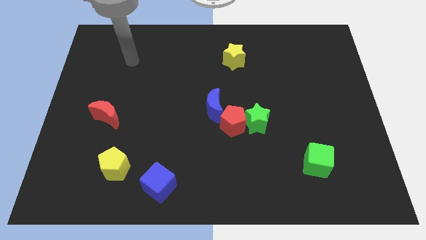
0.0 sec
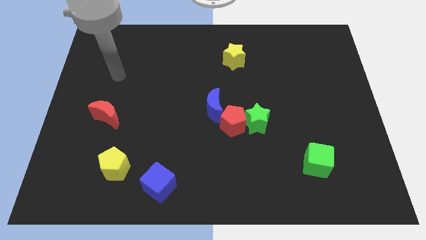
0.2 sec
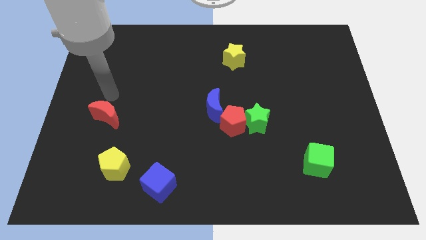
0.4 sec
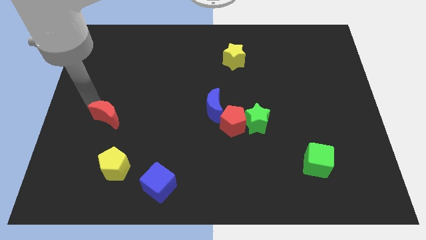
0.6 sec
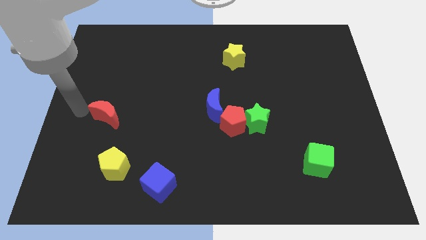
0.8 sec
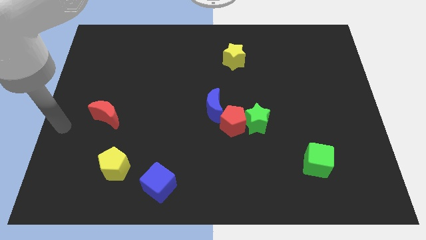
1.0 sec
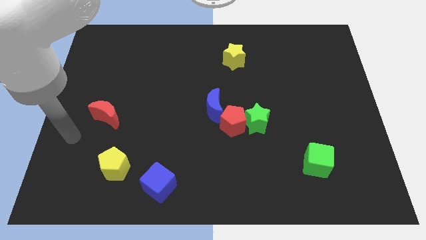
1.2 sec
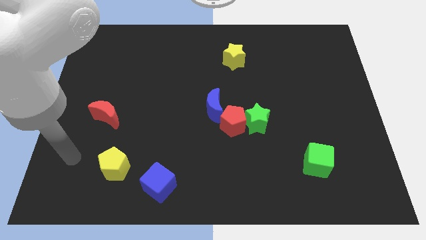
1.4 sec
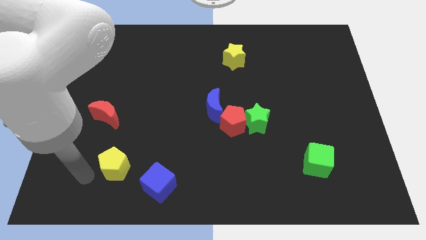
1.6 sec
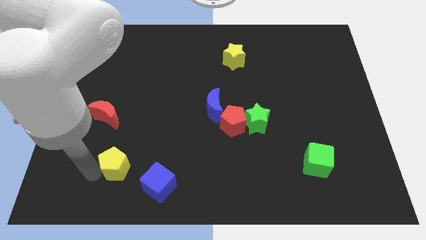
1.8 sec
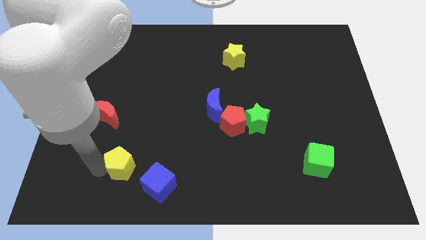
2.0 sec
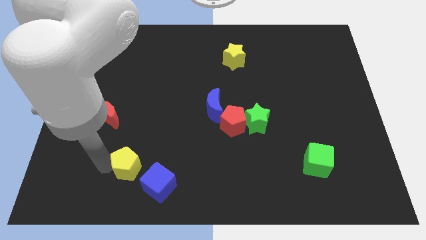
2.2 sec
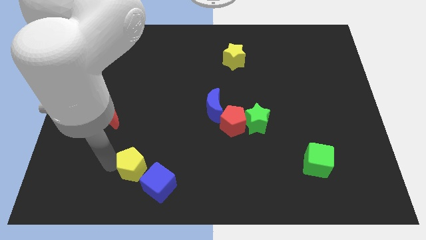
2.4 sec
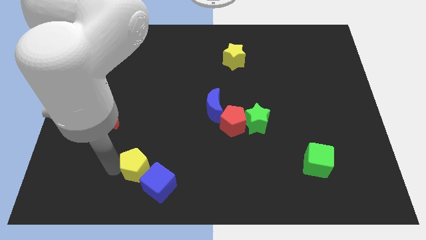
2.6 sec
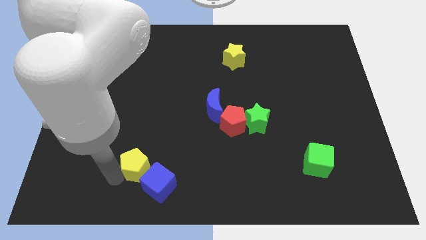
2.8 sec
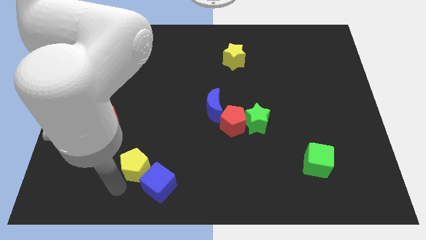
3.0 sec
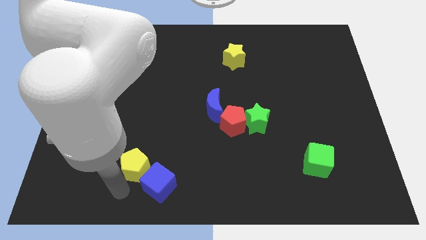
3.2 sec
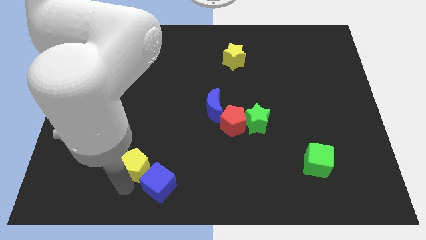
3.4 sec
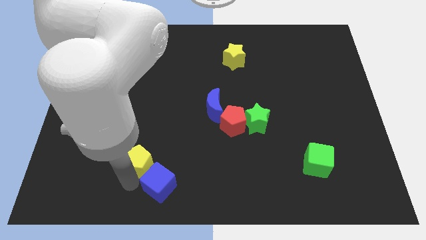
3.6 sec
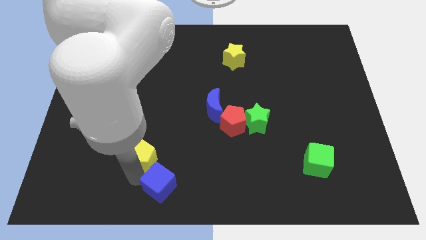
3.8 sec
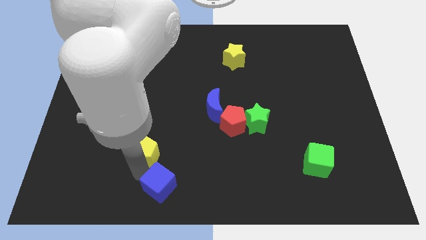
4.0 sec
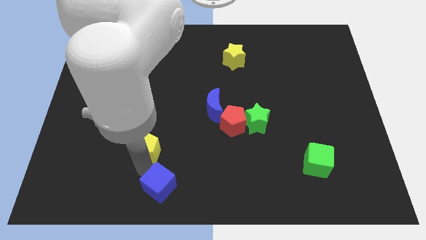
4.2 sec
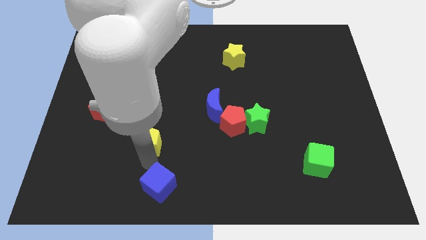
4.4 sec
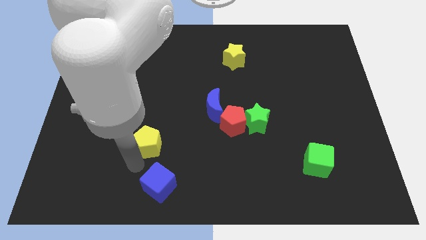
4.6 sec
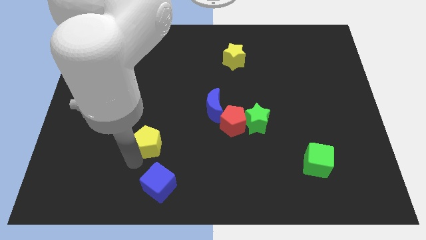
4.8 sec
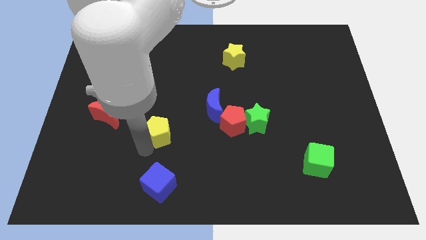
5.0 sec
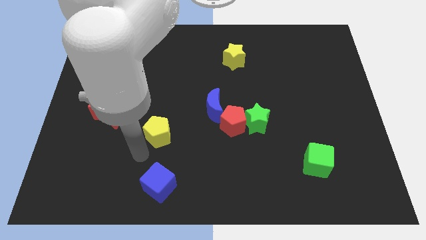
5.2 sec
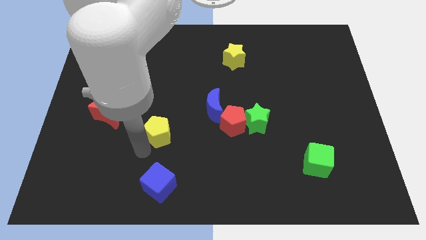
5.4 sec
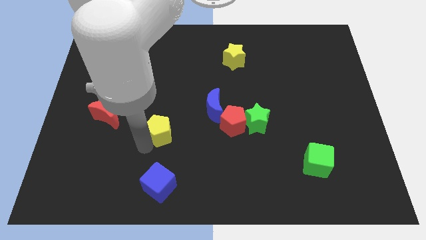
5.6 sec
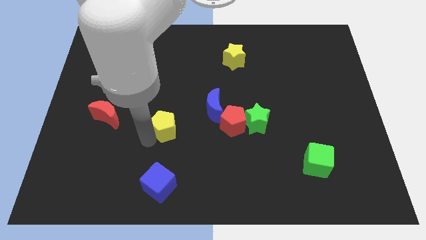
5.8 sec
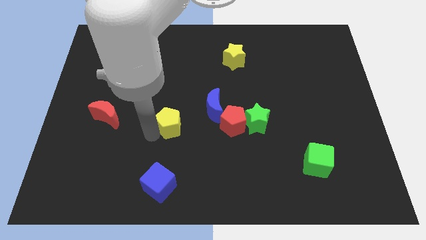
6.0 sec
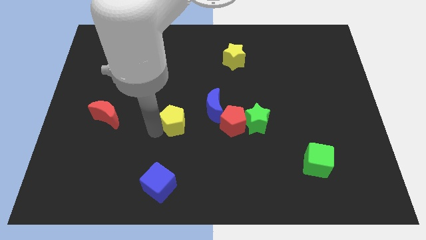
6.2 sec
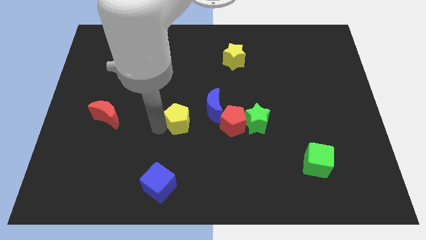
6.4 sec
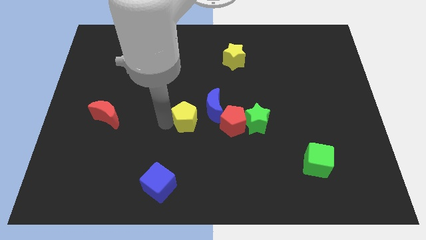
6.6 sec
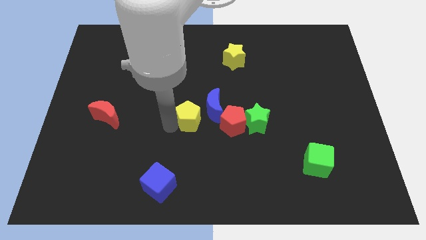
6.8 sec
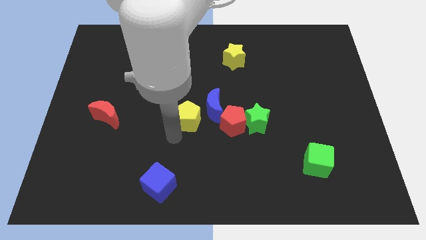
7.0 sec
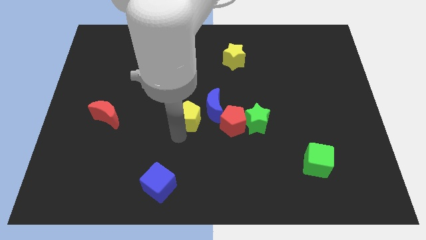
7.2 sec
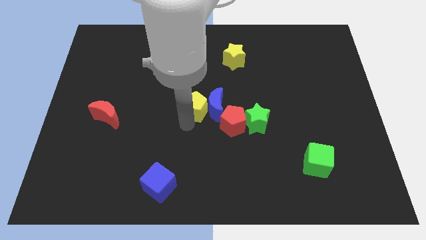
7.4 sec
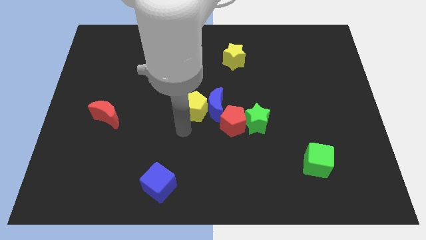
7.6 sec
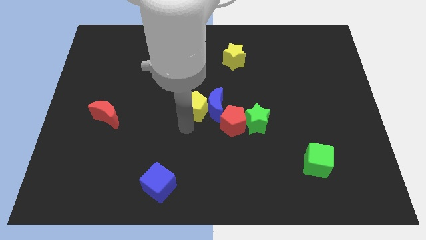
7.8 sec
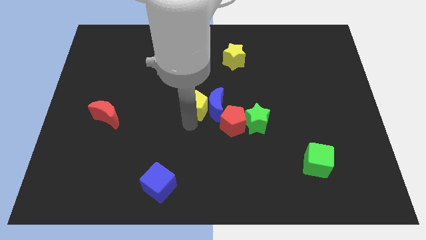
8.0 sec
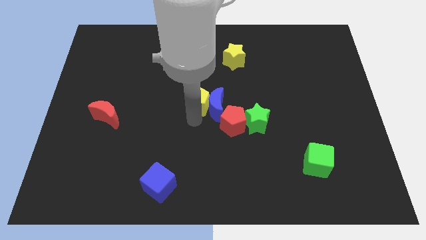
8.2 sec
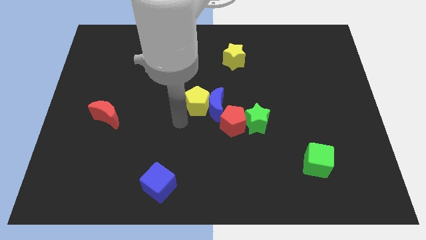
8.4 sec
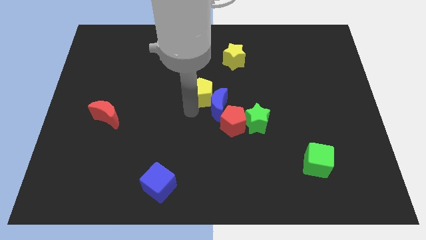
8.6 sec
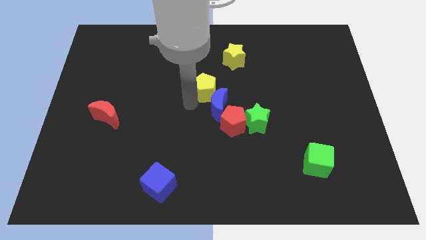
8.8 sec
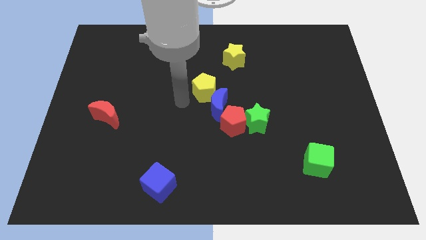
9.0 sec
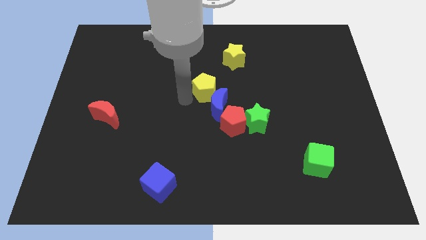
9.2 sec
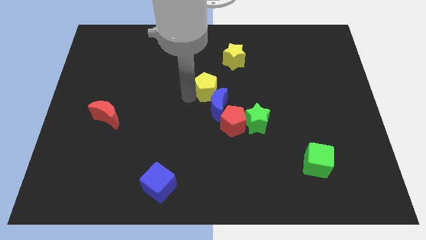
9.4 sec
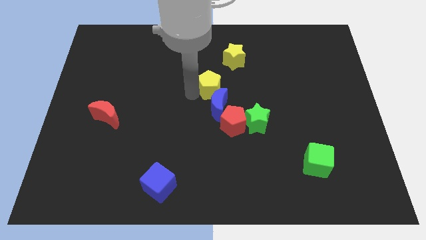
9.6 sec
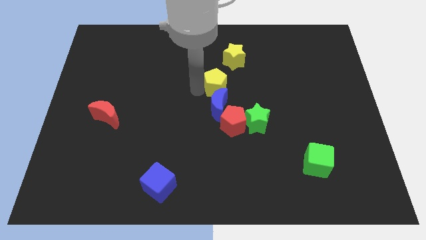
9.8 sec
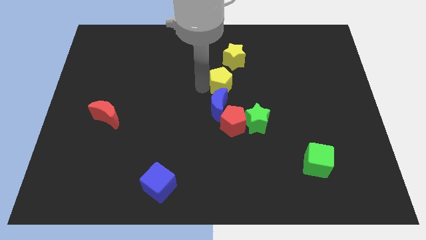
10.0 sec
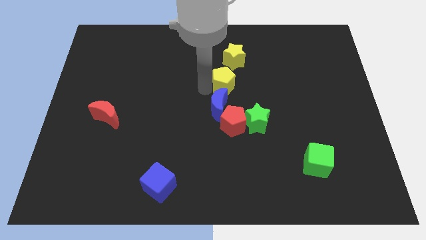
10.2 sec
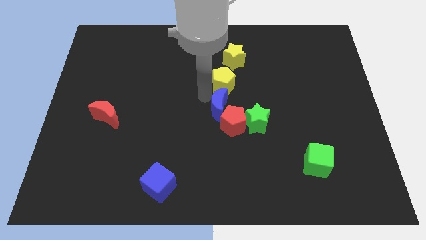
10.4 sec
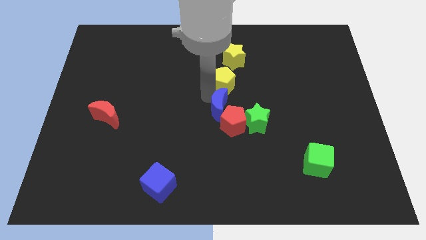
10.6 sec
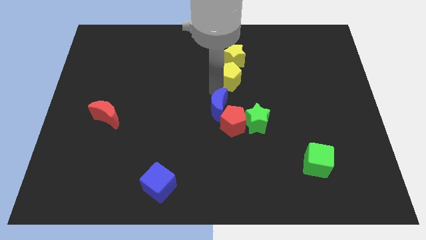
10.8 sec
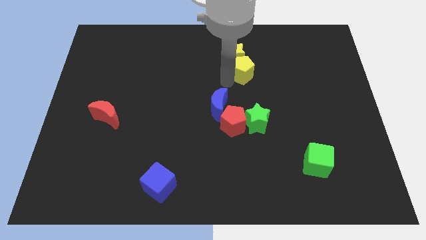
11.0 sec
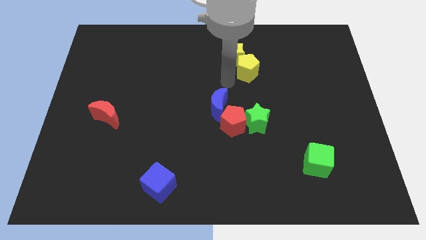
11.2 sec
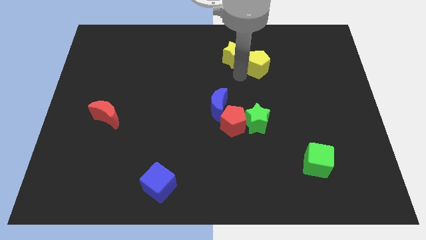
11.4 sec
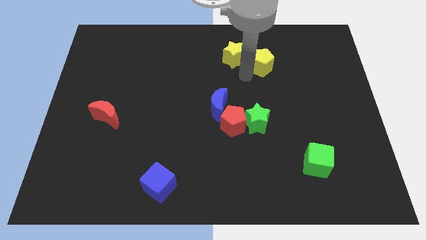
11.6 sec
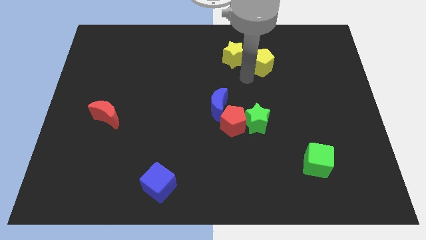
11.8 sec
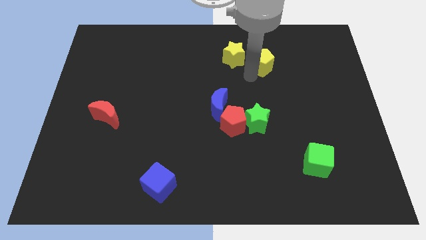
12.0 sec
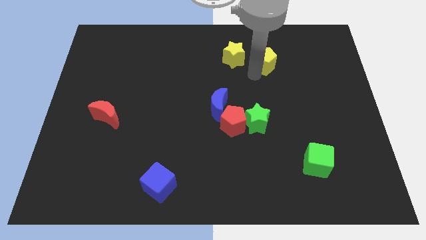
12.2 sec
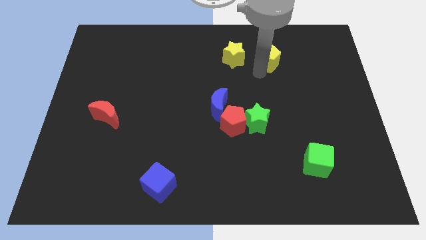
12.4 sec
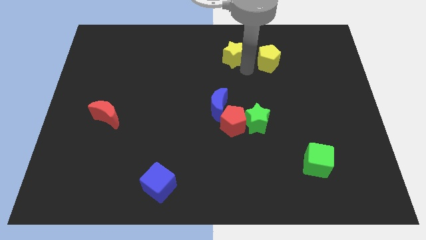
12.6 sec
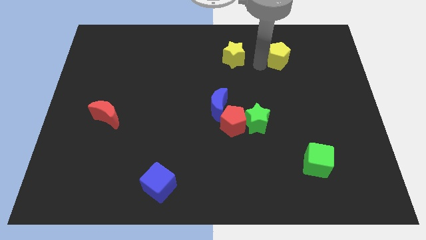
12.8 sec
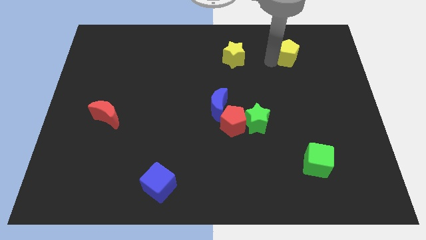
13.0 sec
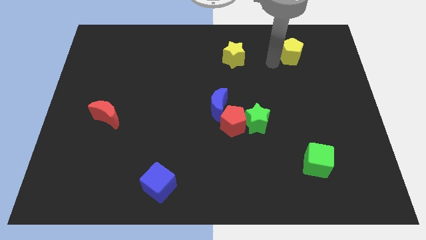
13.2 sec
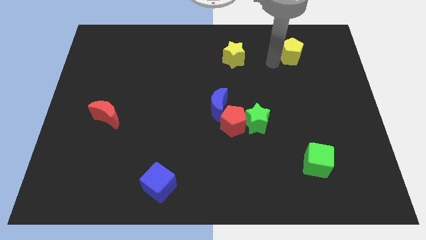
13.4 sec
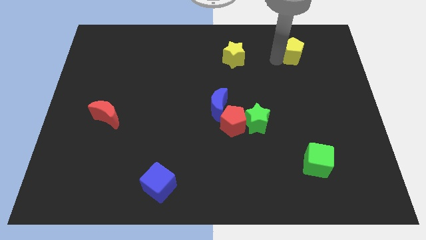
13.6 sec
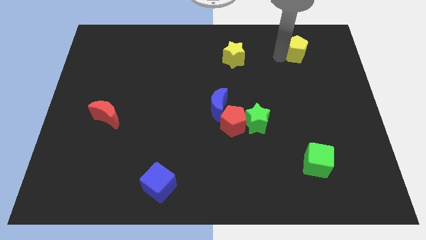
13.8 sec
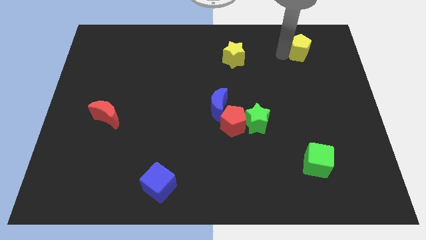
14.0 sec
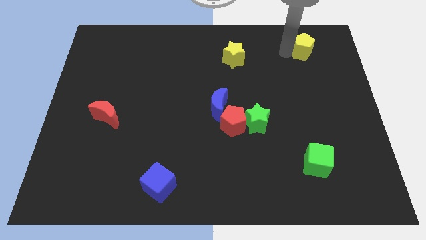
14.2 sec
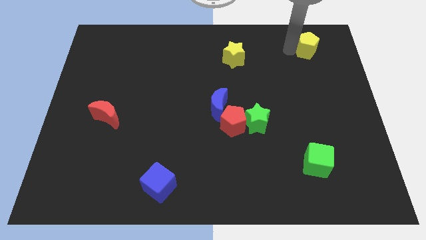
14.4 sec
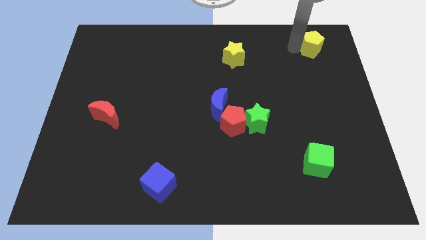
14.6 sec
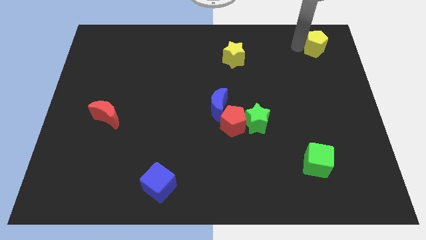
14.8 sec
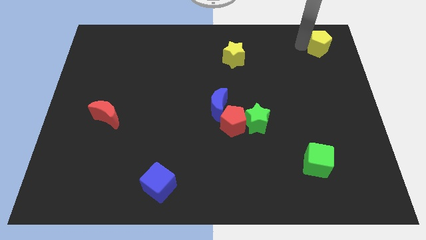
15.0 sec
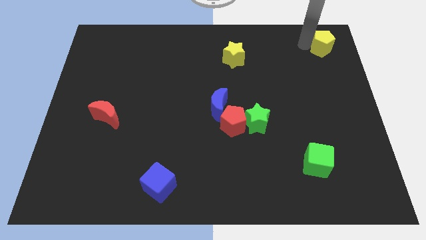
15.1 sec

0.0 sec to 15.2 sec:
slide the yellow pentagon to the top right
